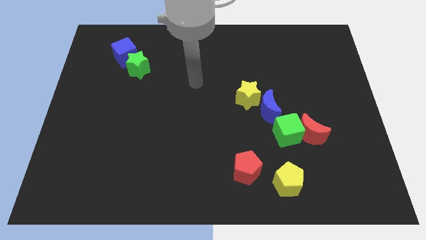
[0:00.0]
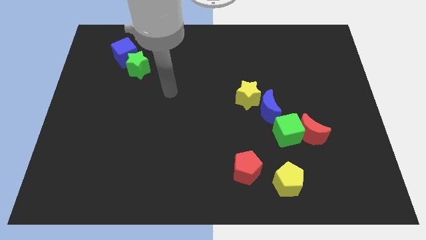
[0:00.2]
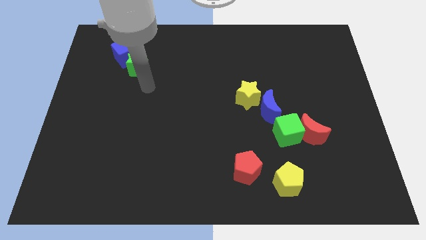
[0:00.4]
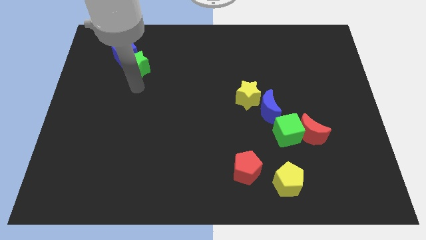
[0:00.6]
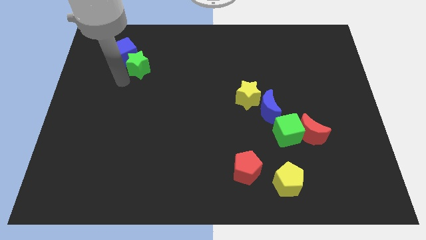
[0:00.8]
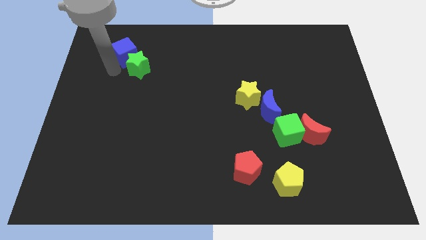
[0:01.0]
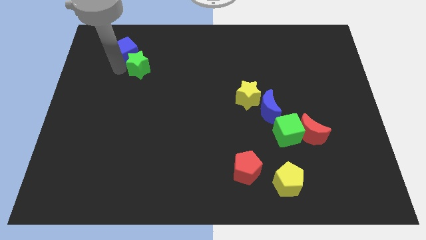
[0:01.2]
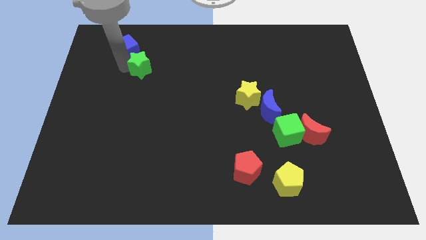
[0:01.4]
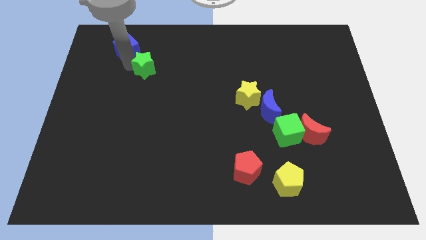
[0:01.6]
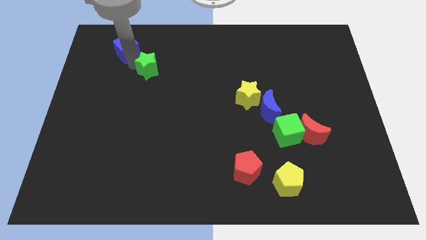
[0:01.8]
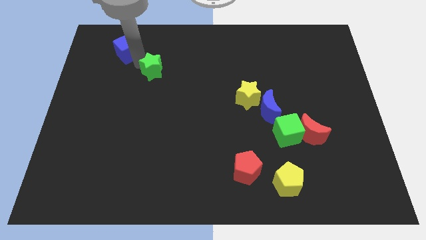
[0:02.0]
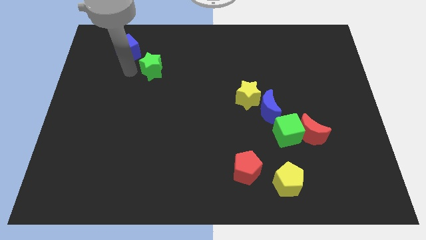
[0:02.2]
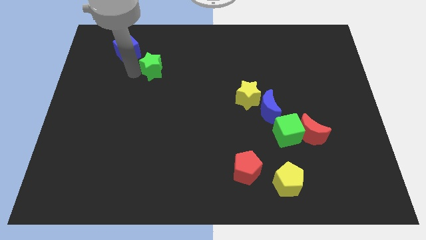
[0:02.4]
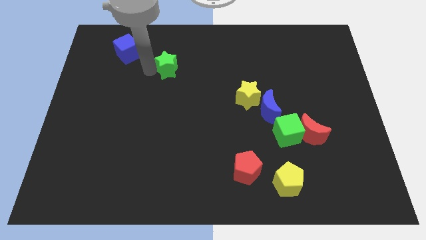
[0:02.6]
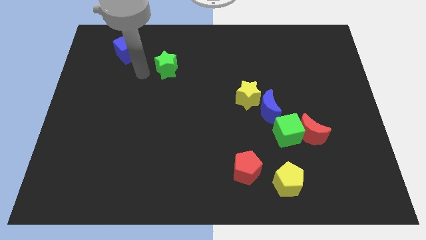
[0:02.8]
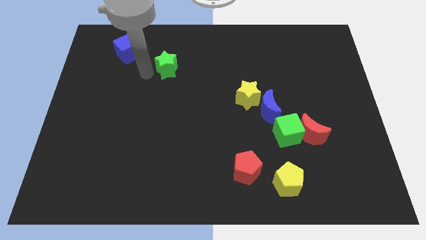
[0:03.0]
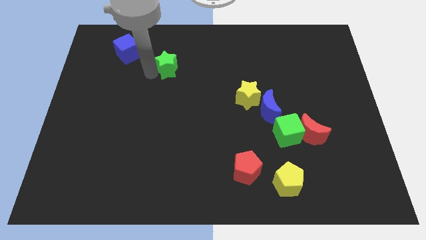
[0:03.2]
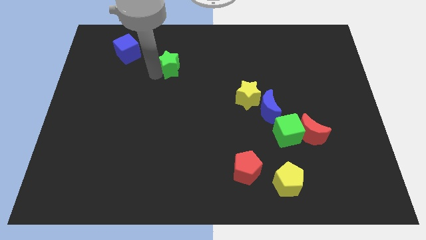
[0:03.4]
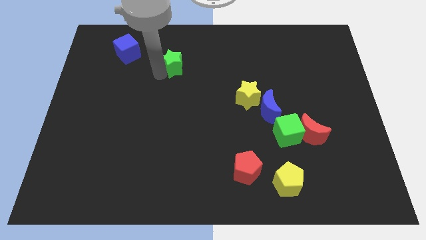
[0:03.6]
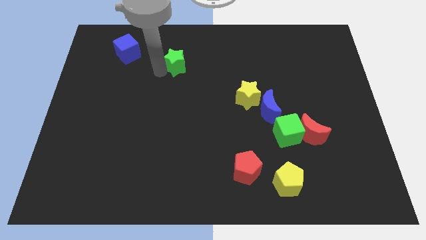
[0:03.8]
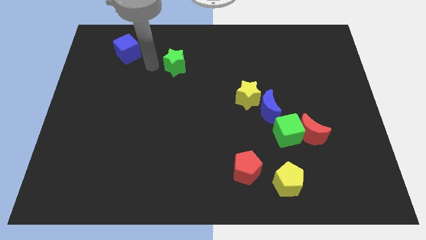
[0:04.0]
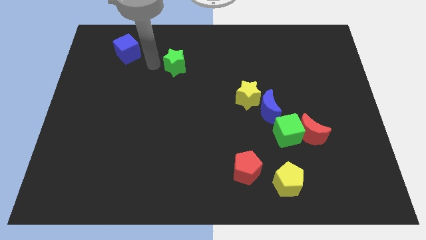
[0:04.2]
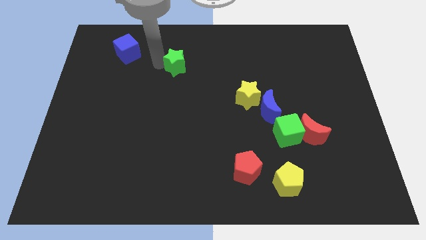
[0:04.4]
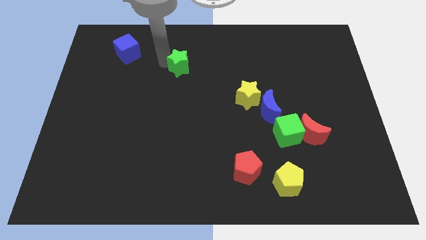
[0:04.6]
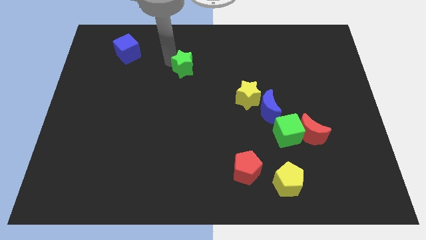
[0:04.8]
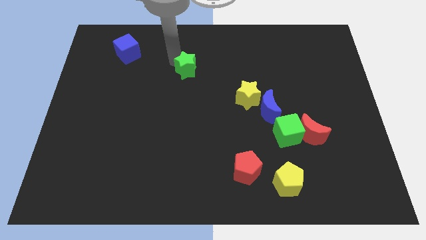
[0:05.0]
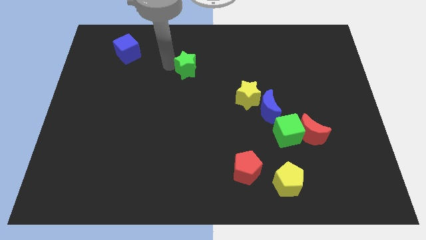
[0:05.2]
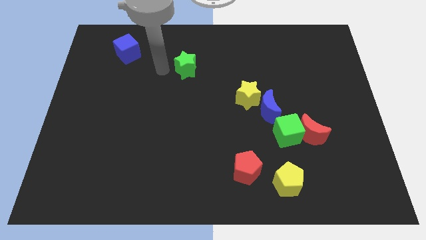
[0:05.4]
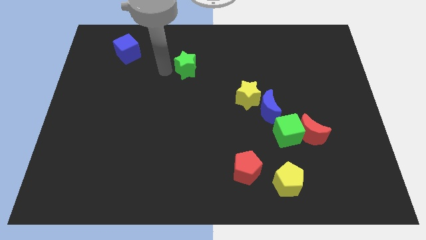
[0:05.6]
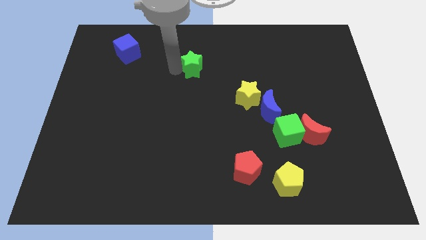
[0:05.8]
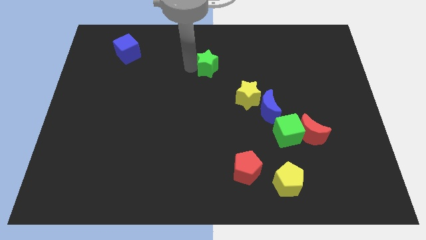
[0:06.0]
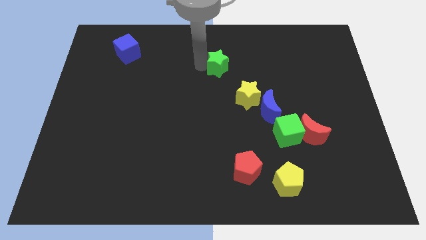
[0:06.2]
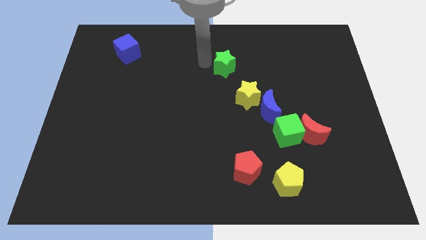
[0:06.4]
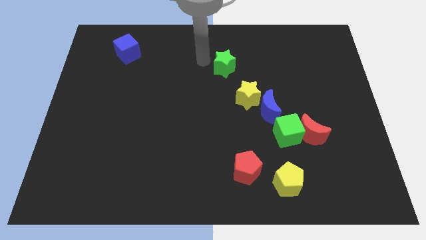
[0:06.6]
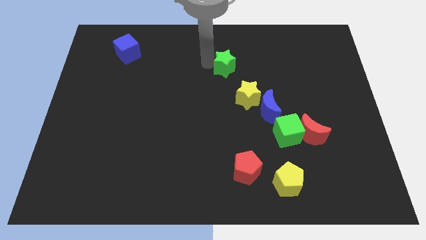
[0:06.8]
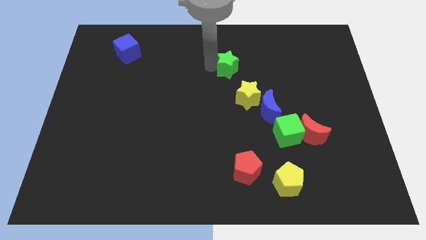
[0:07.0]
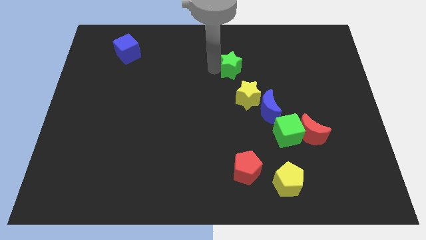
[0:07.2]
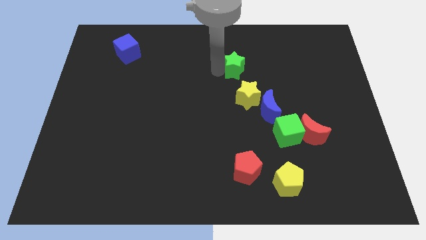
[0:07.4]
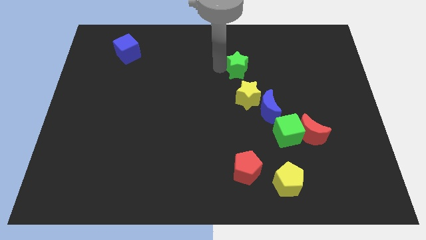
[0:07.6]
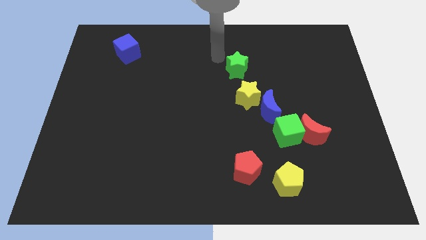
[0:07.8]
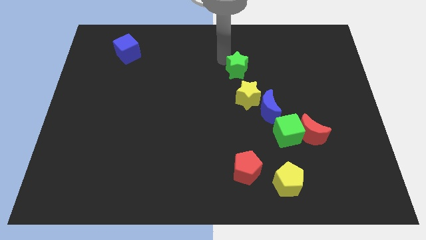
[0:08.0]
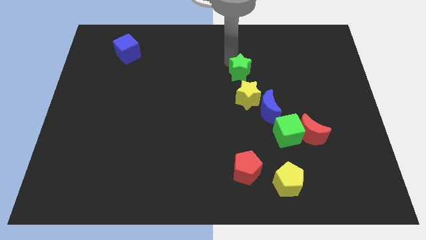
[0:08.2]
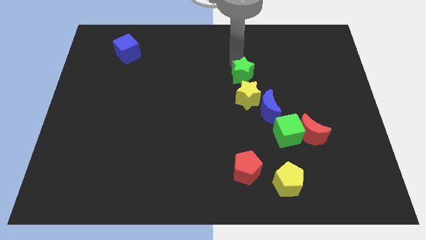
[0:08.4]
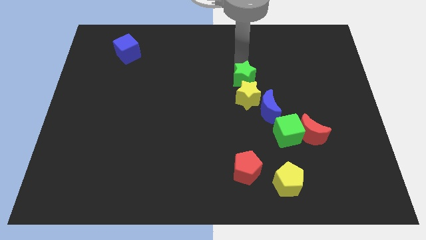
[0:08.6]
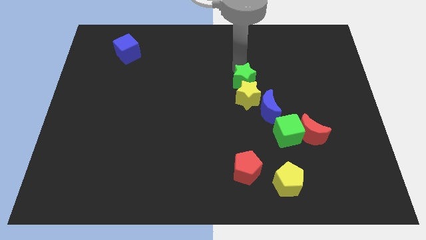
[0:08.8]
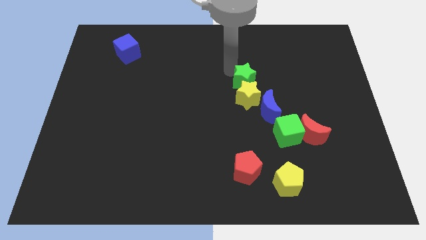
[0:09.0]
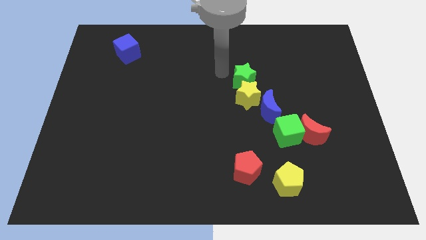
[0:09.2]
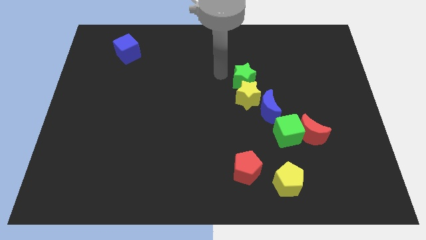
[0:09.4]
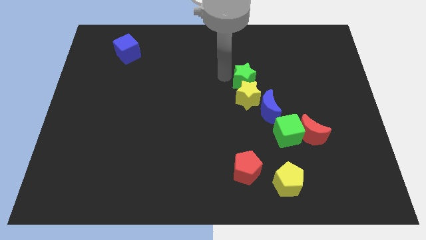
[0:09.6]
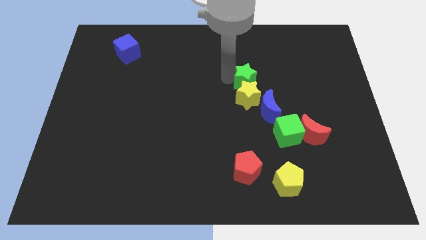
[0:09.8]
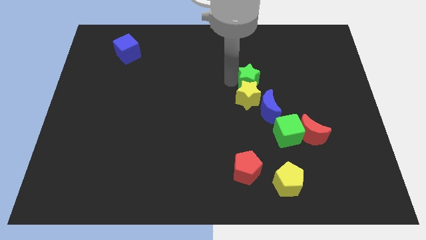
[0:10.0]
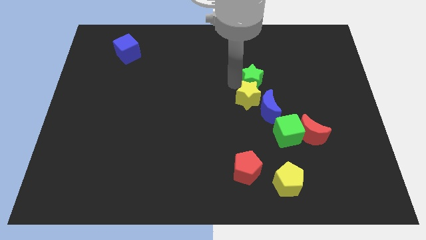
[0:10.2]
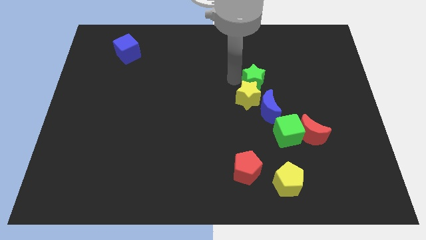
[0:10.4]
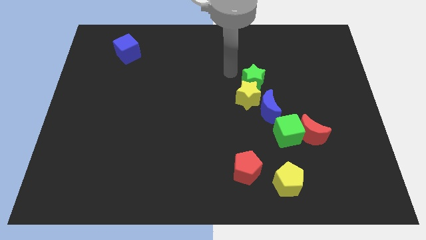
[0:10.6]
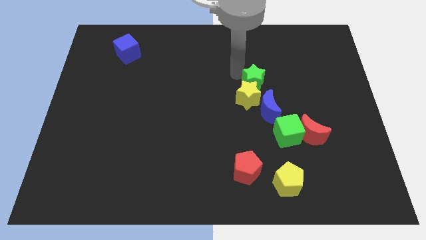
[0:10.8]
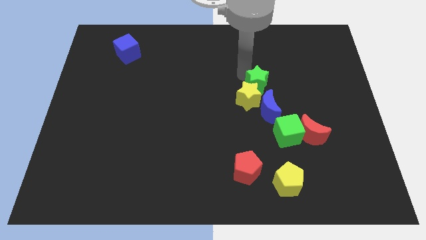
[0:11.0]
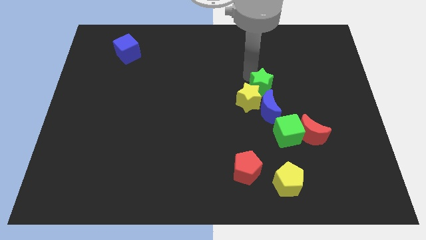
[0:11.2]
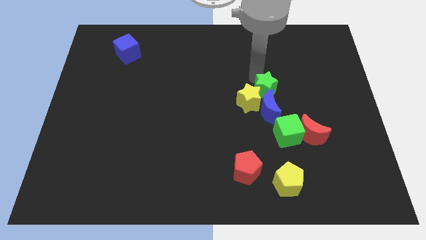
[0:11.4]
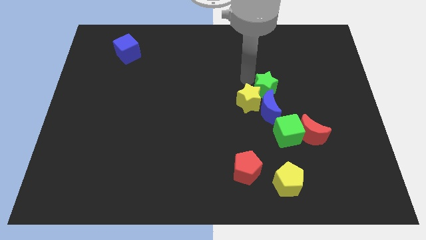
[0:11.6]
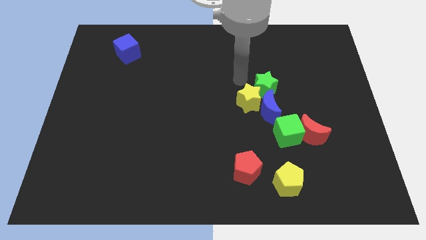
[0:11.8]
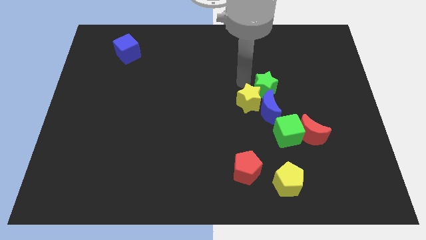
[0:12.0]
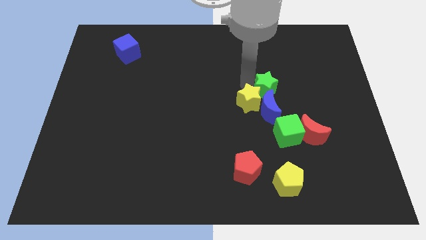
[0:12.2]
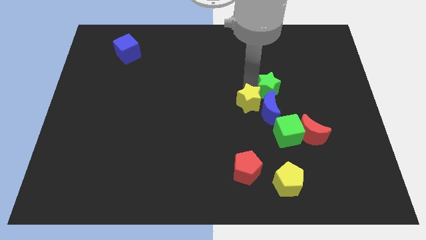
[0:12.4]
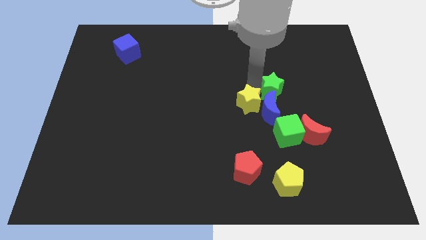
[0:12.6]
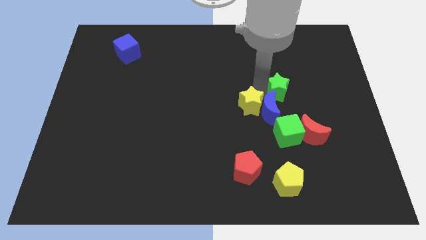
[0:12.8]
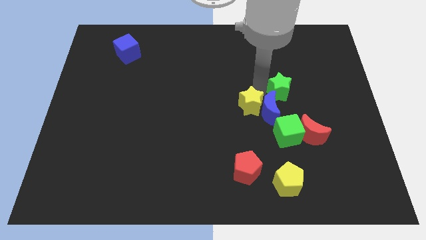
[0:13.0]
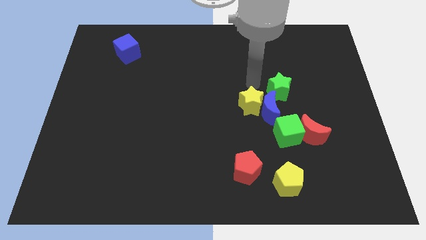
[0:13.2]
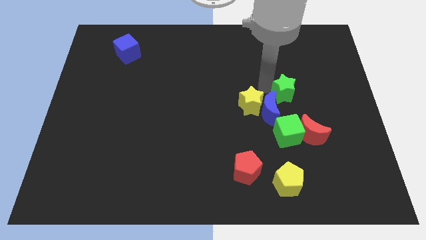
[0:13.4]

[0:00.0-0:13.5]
push the green star above the red moon
